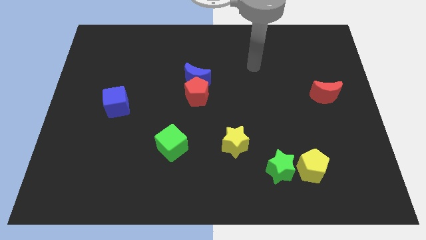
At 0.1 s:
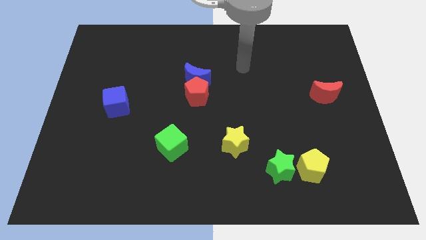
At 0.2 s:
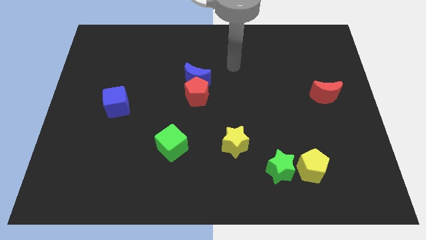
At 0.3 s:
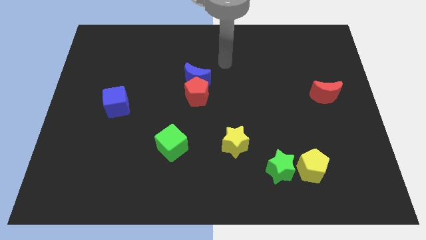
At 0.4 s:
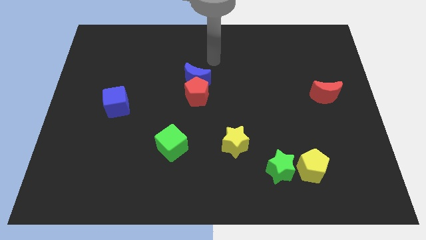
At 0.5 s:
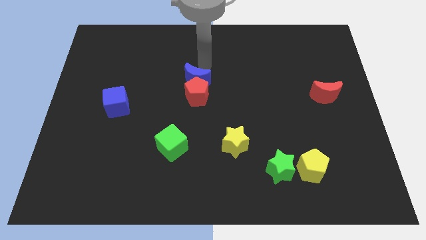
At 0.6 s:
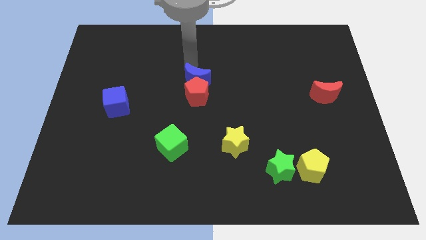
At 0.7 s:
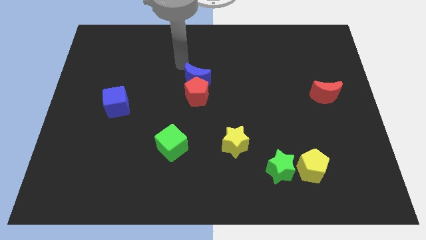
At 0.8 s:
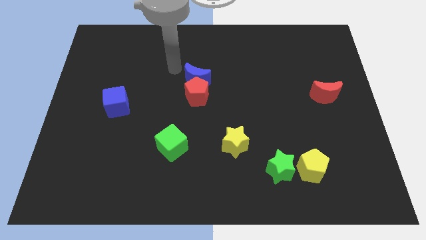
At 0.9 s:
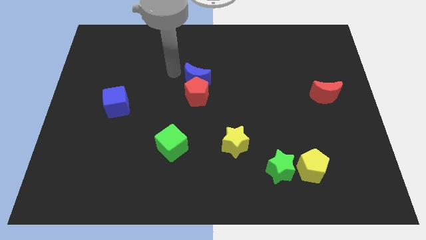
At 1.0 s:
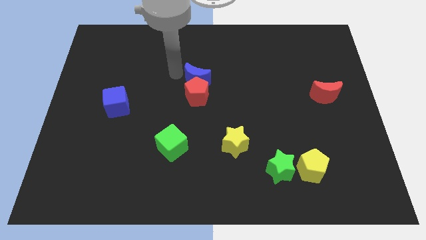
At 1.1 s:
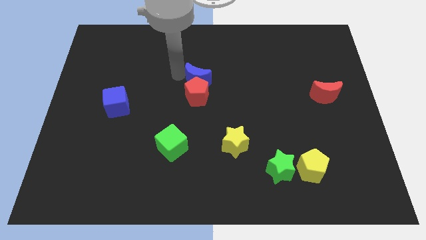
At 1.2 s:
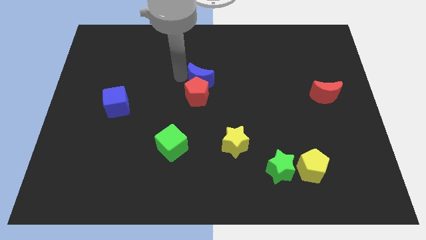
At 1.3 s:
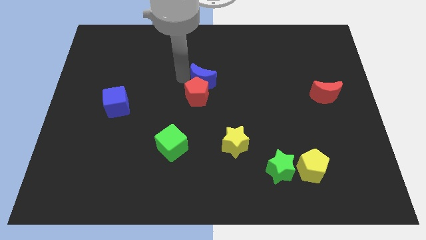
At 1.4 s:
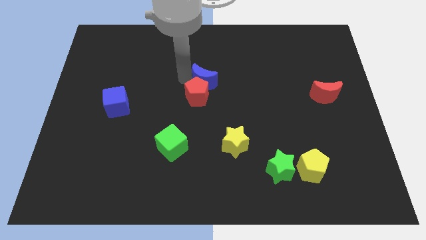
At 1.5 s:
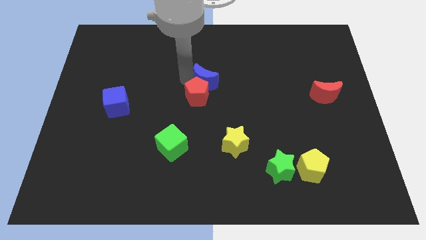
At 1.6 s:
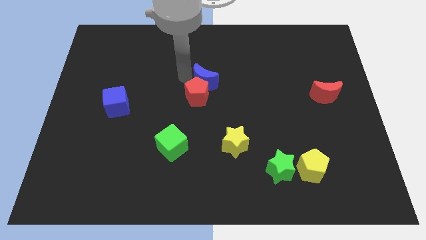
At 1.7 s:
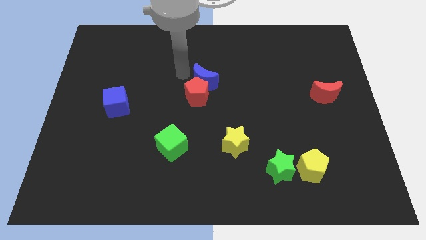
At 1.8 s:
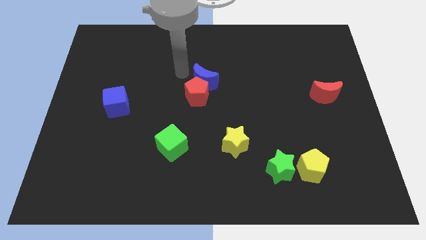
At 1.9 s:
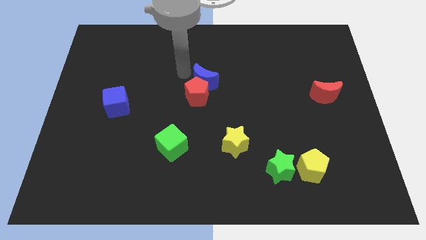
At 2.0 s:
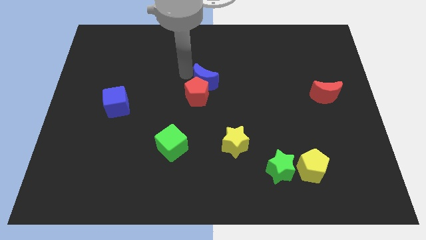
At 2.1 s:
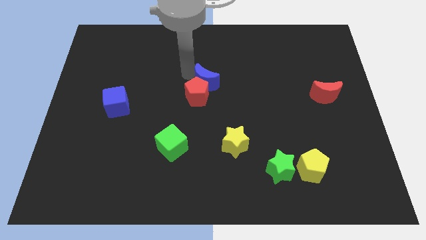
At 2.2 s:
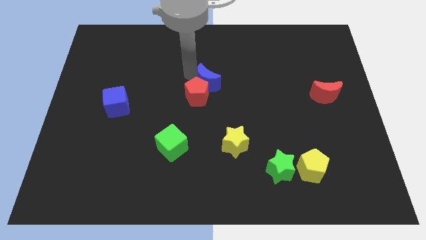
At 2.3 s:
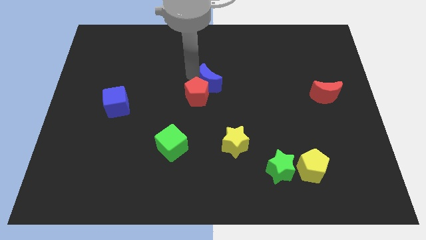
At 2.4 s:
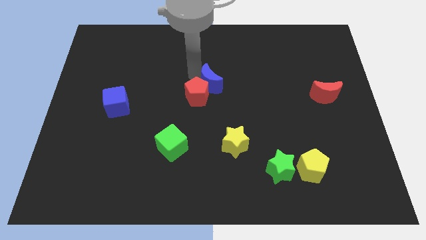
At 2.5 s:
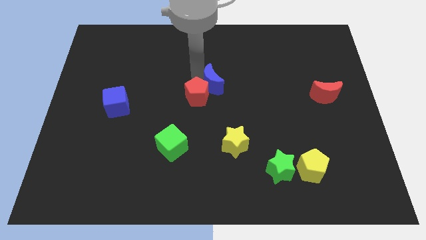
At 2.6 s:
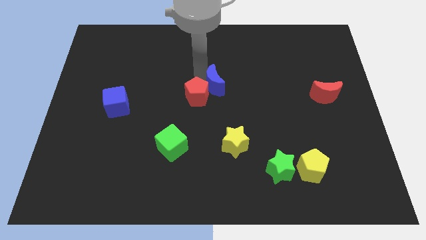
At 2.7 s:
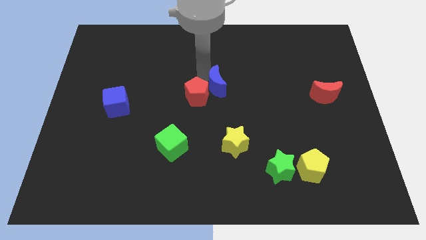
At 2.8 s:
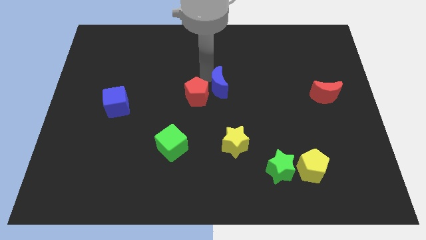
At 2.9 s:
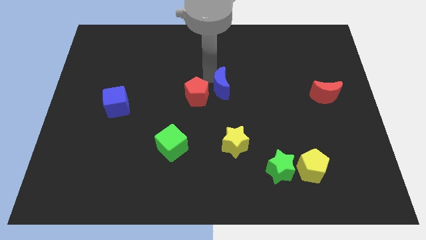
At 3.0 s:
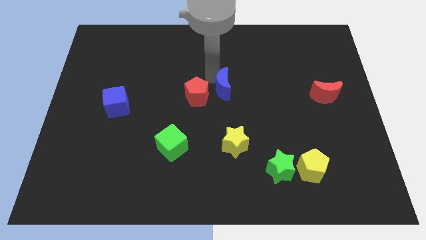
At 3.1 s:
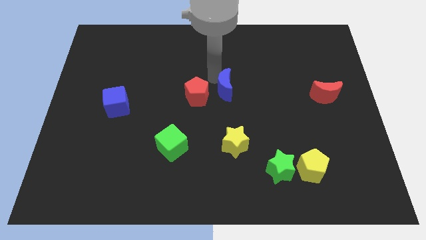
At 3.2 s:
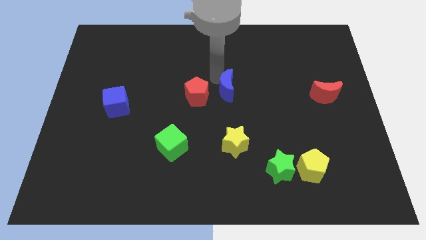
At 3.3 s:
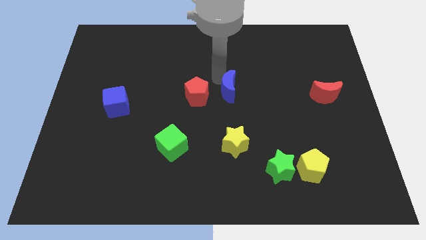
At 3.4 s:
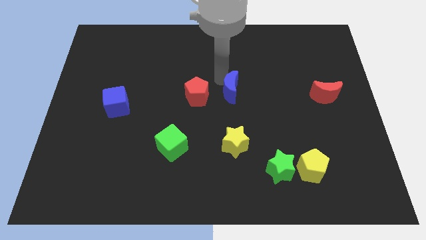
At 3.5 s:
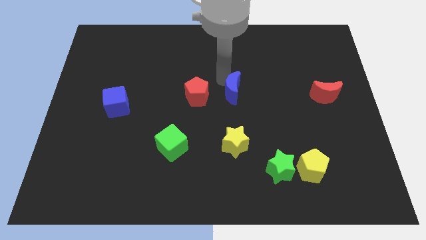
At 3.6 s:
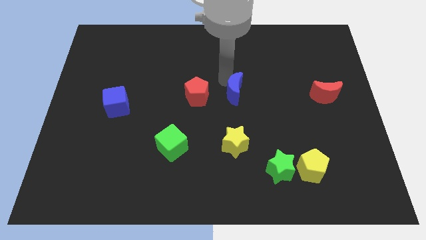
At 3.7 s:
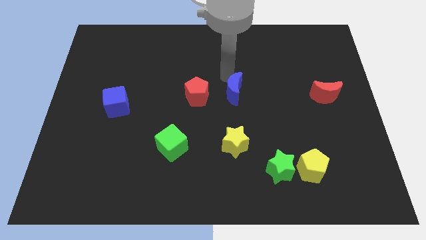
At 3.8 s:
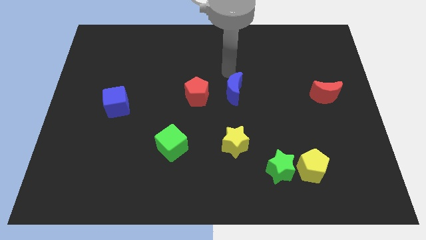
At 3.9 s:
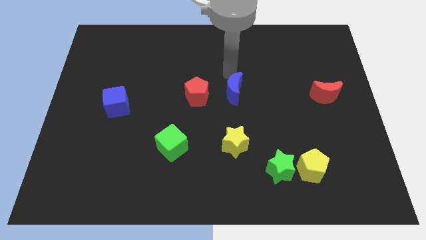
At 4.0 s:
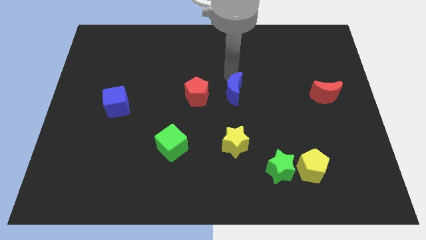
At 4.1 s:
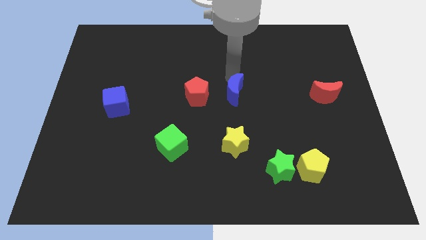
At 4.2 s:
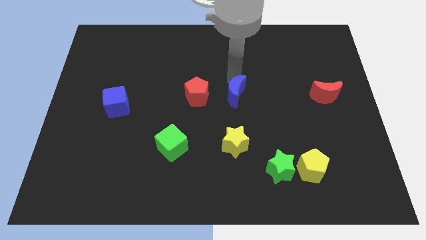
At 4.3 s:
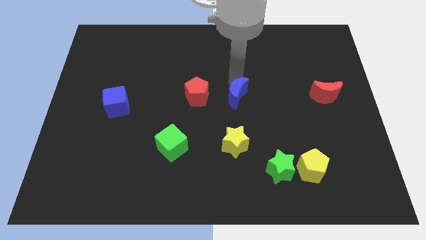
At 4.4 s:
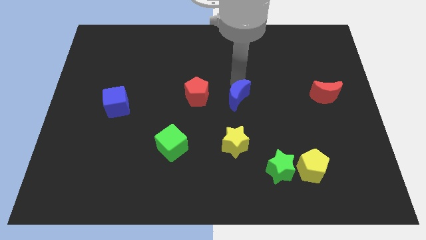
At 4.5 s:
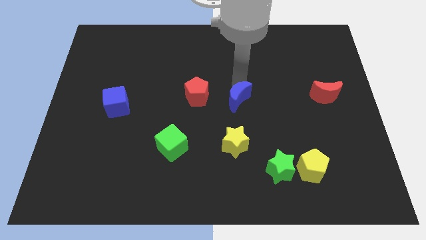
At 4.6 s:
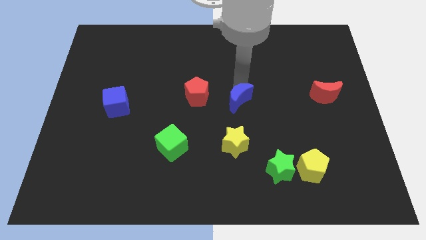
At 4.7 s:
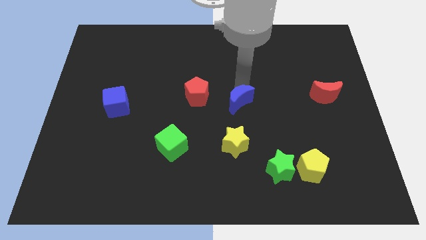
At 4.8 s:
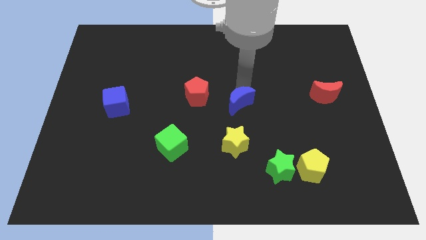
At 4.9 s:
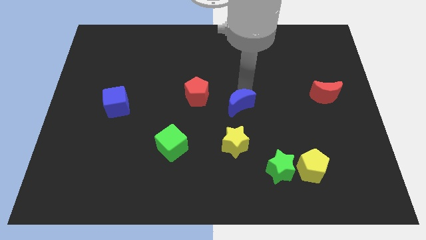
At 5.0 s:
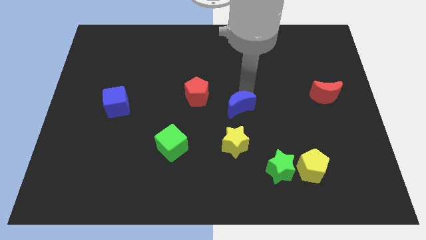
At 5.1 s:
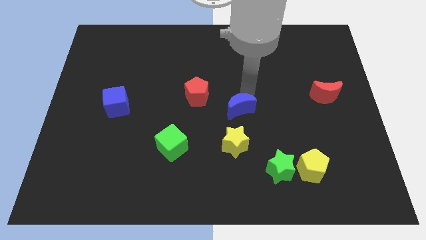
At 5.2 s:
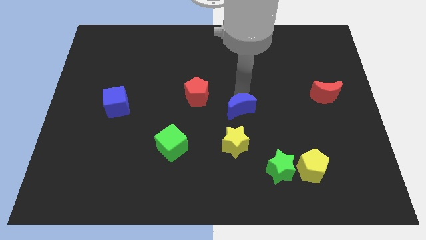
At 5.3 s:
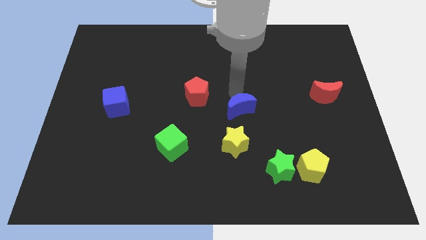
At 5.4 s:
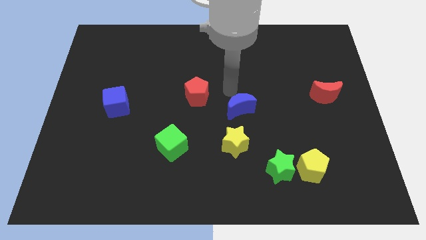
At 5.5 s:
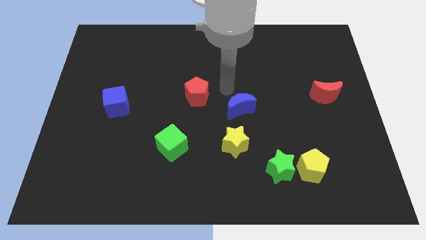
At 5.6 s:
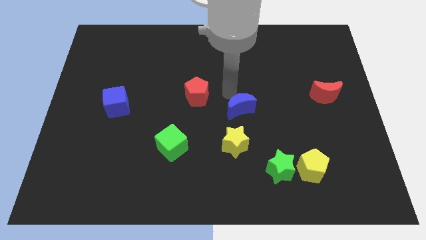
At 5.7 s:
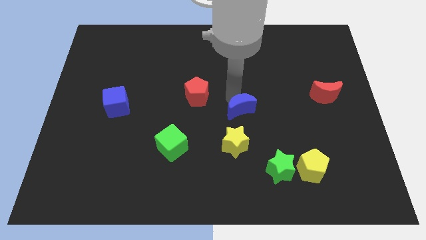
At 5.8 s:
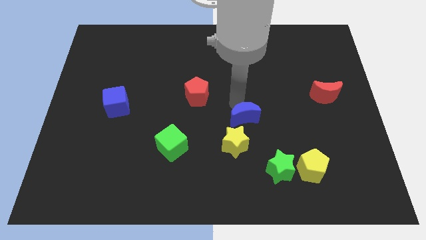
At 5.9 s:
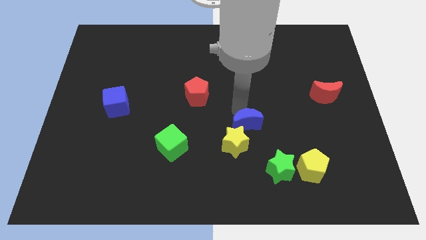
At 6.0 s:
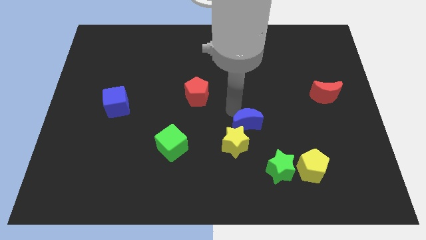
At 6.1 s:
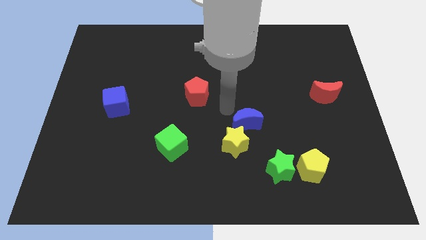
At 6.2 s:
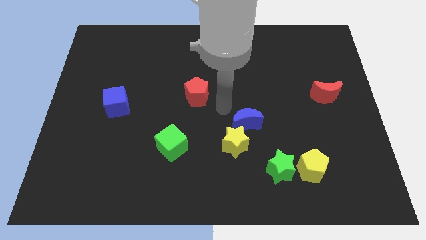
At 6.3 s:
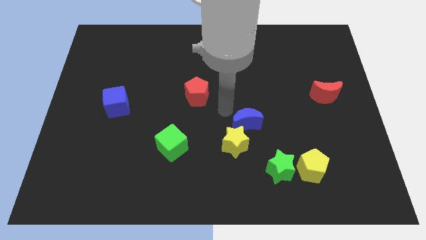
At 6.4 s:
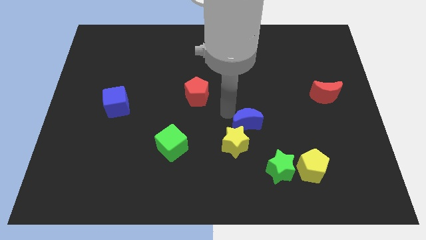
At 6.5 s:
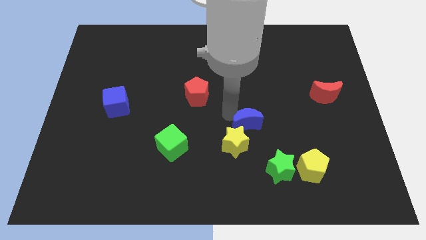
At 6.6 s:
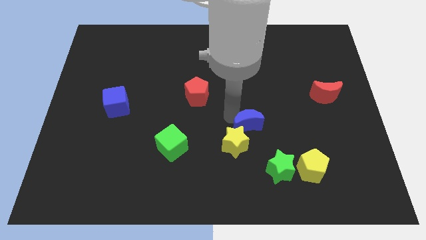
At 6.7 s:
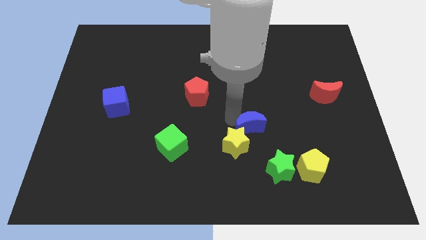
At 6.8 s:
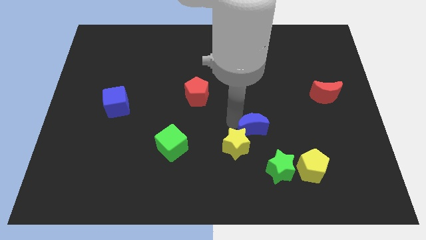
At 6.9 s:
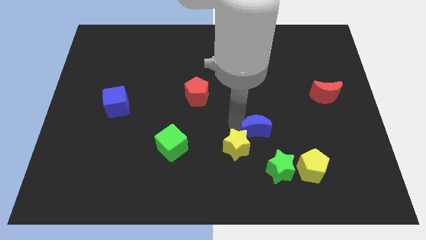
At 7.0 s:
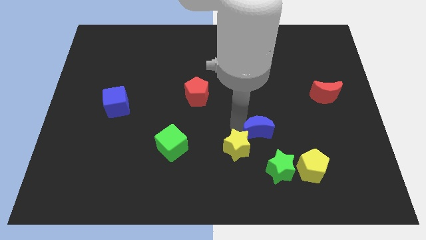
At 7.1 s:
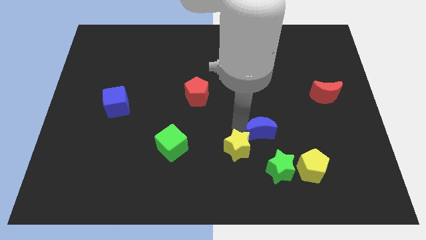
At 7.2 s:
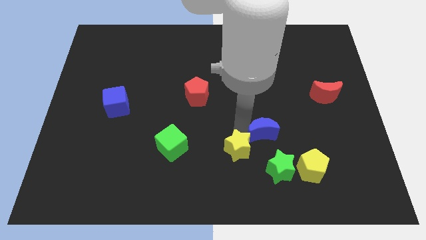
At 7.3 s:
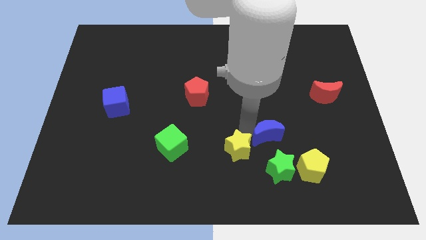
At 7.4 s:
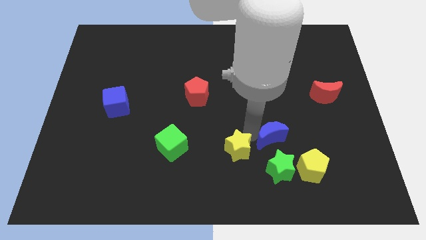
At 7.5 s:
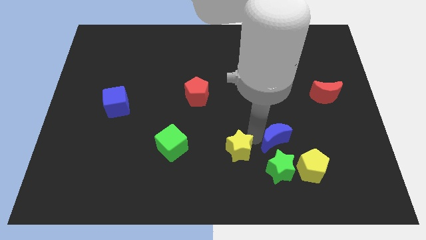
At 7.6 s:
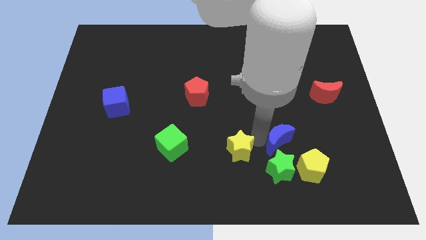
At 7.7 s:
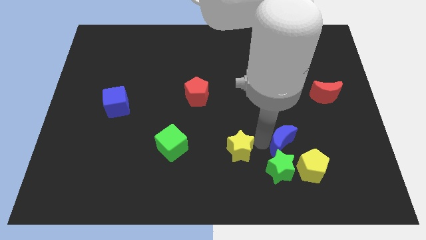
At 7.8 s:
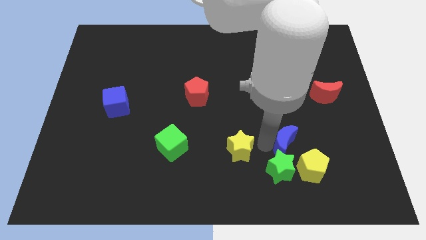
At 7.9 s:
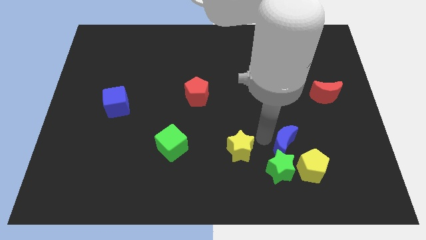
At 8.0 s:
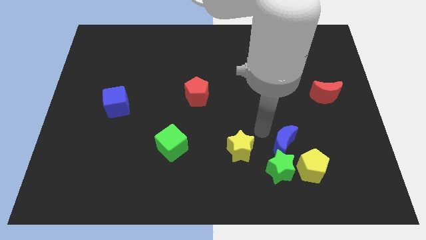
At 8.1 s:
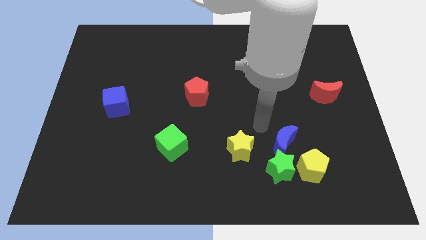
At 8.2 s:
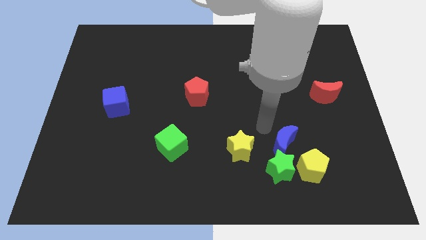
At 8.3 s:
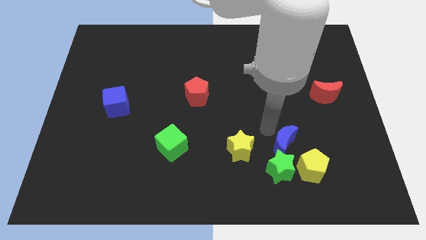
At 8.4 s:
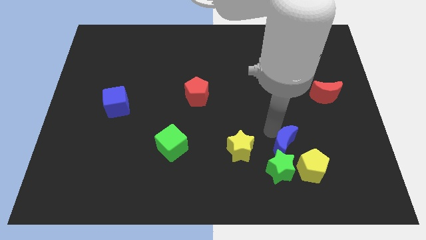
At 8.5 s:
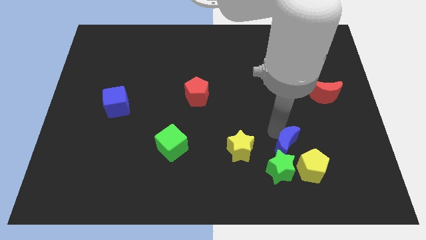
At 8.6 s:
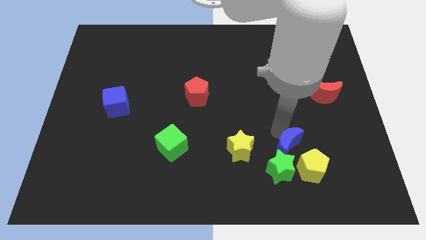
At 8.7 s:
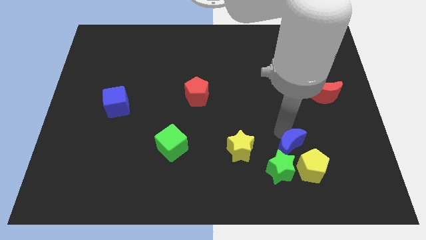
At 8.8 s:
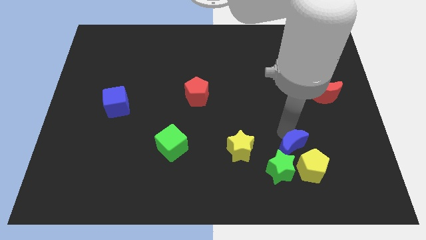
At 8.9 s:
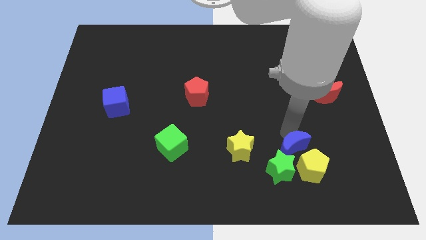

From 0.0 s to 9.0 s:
move the blue moon towards the yellow pentagon
